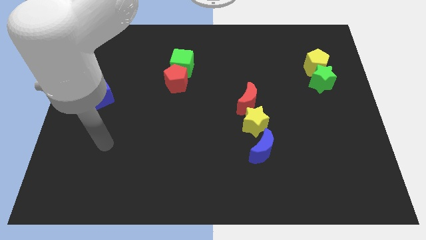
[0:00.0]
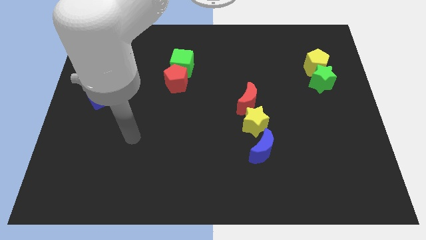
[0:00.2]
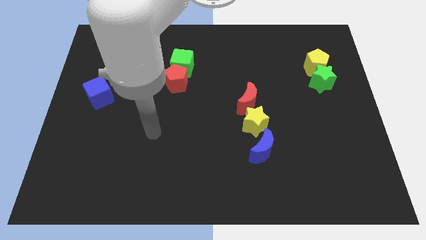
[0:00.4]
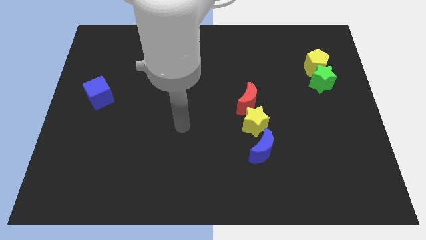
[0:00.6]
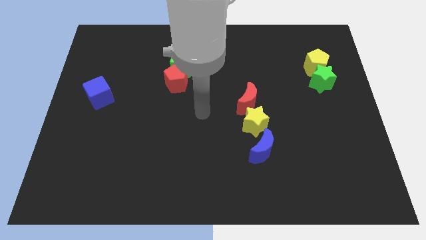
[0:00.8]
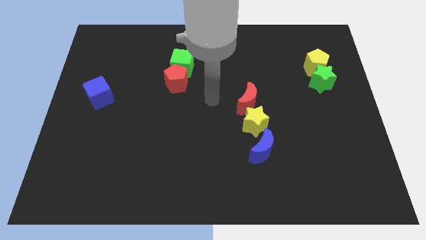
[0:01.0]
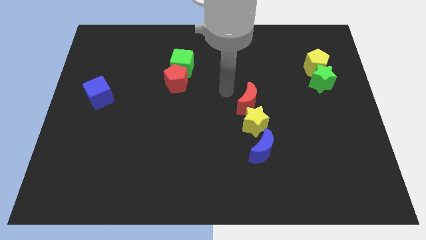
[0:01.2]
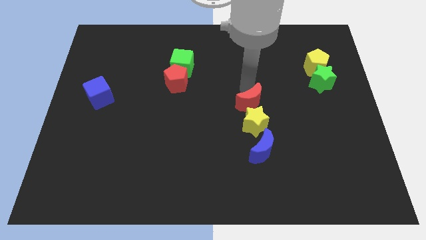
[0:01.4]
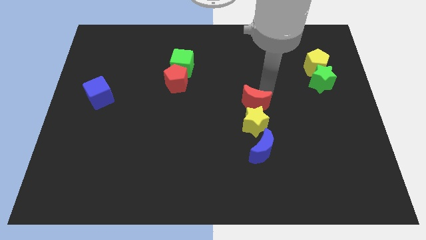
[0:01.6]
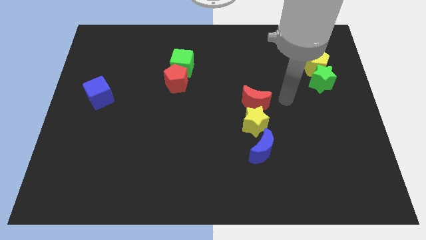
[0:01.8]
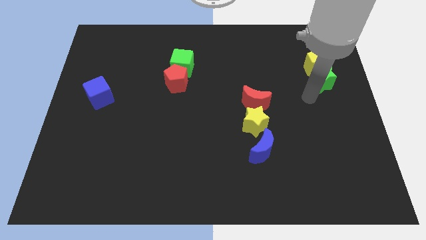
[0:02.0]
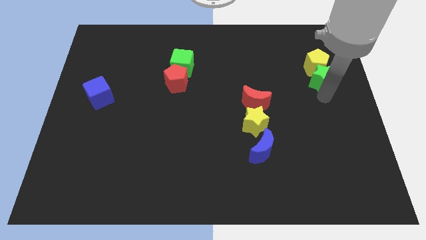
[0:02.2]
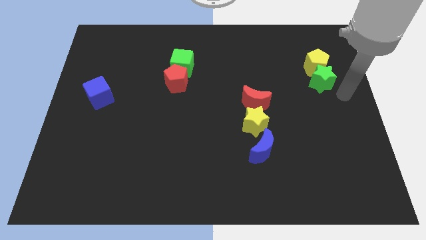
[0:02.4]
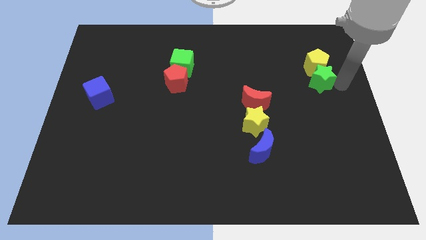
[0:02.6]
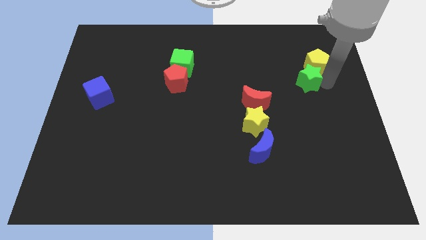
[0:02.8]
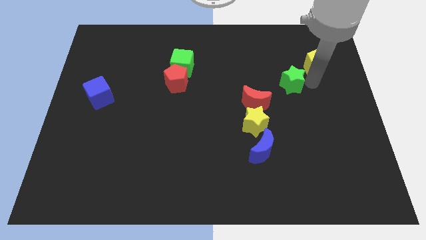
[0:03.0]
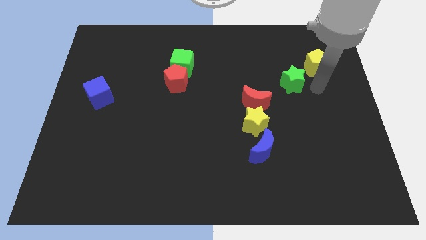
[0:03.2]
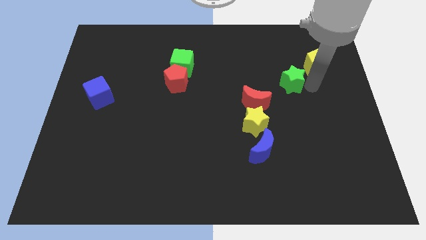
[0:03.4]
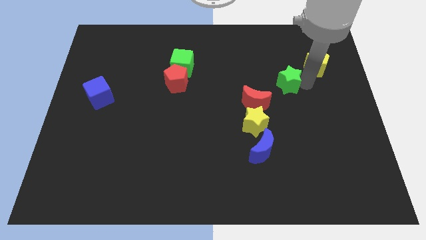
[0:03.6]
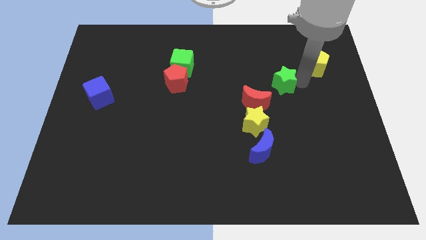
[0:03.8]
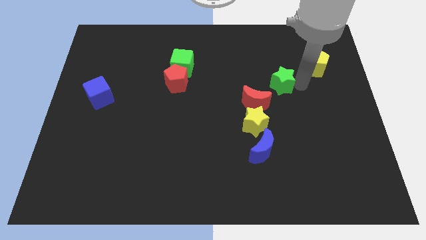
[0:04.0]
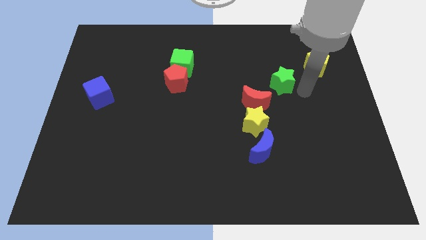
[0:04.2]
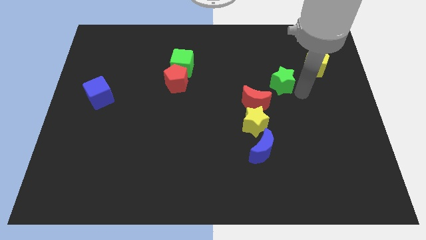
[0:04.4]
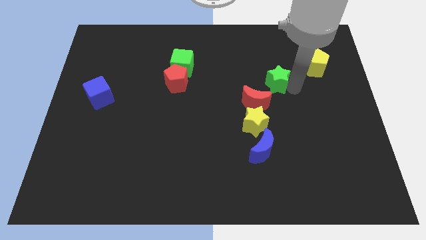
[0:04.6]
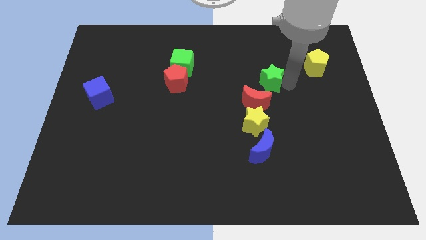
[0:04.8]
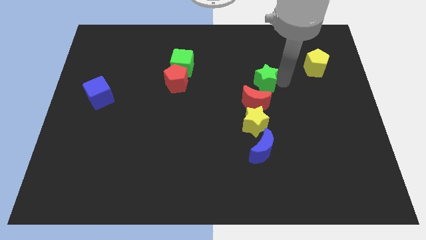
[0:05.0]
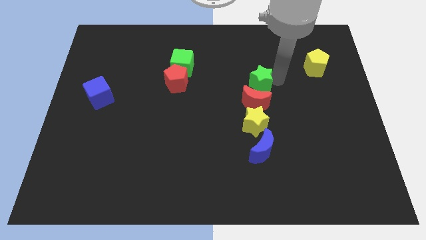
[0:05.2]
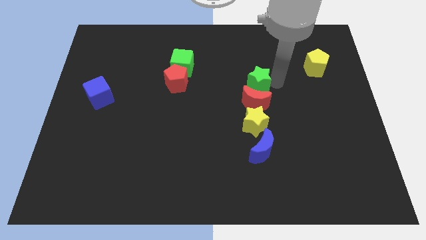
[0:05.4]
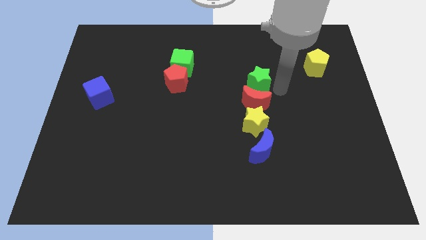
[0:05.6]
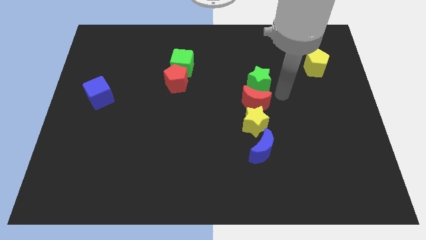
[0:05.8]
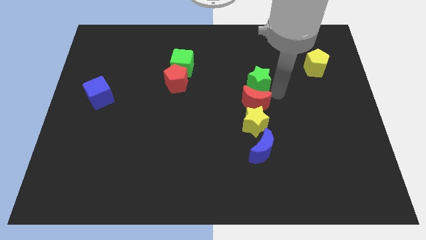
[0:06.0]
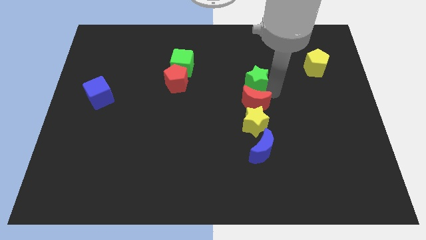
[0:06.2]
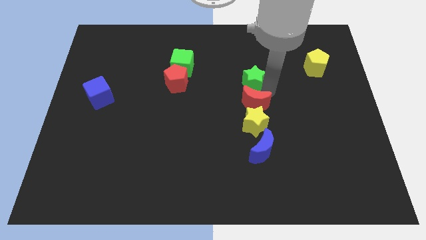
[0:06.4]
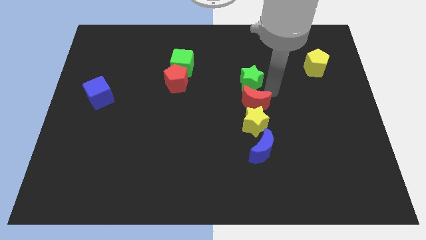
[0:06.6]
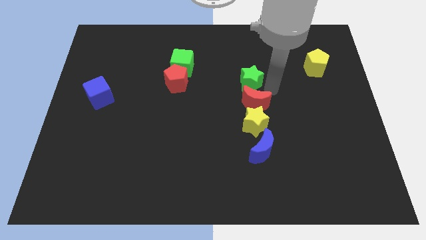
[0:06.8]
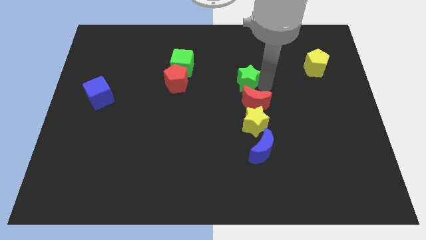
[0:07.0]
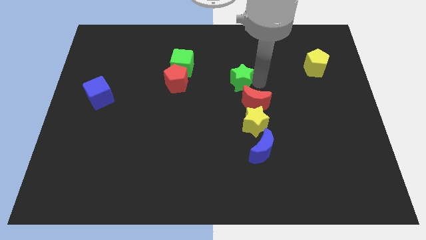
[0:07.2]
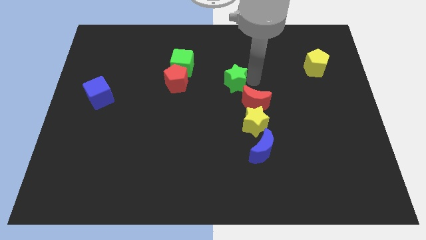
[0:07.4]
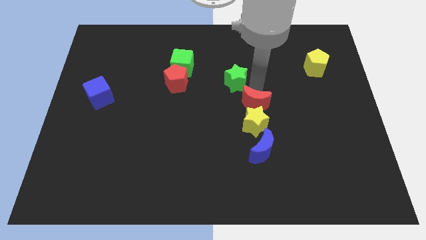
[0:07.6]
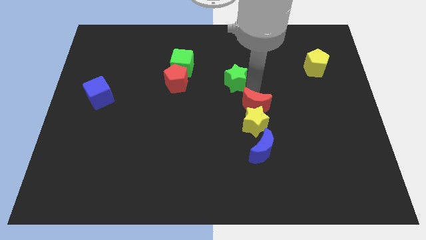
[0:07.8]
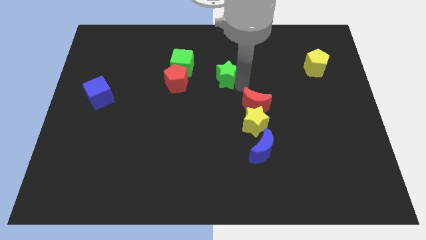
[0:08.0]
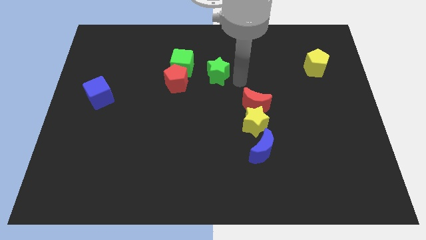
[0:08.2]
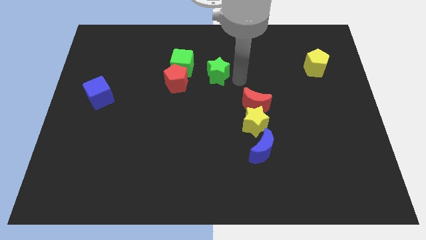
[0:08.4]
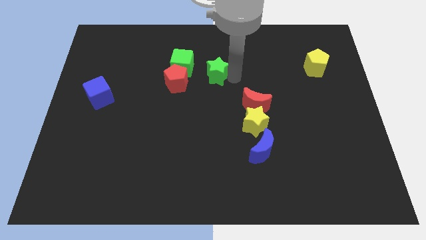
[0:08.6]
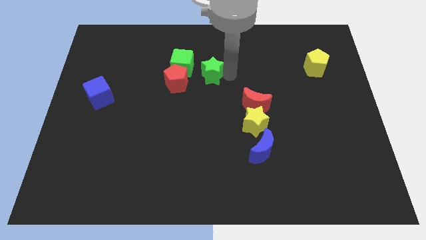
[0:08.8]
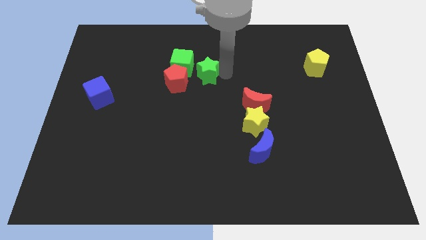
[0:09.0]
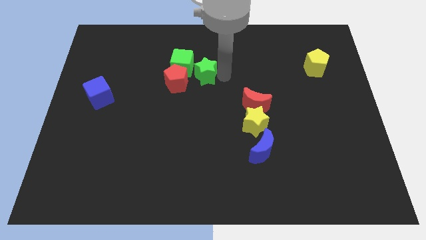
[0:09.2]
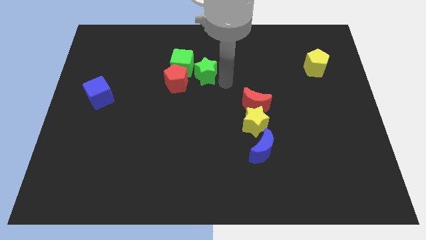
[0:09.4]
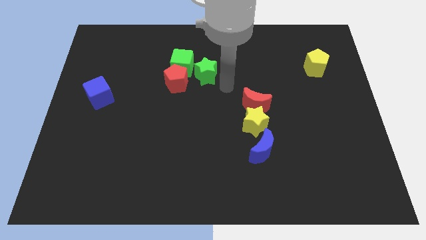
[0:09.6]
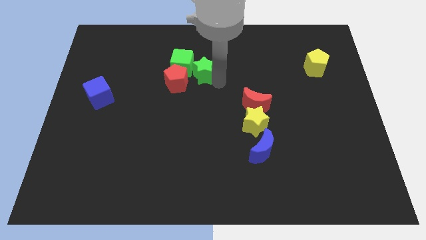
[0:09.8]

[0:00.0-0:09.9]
push the green star next to the green cube

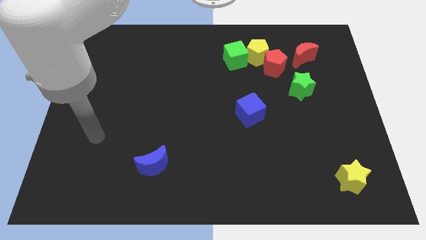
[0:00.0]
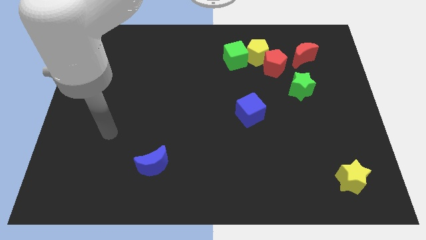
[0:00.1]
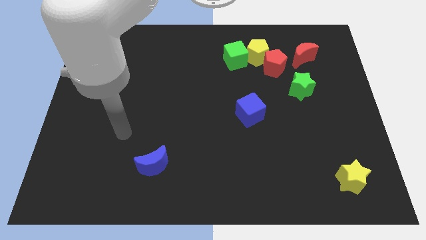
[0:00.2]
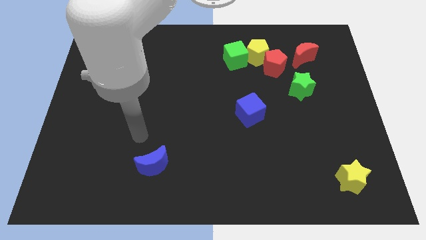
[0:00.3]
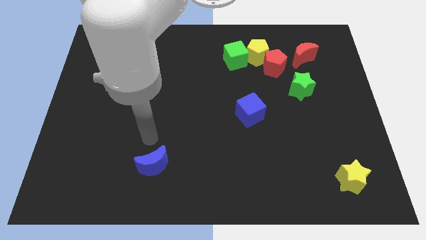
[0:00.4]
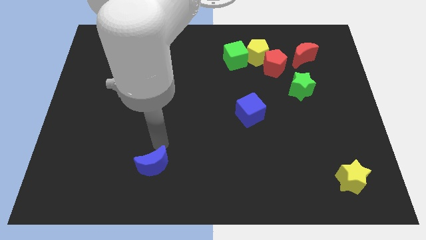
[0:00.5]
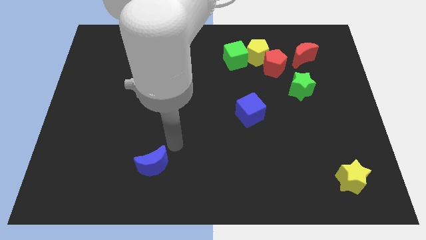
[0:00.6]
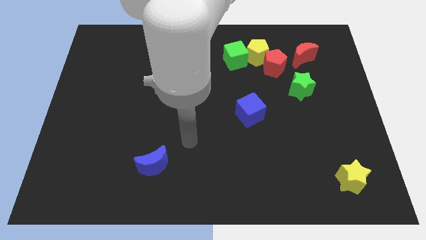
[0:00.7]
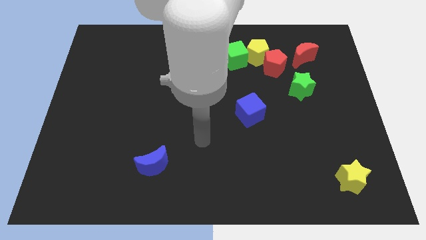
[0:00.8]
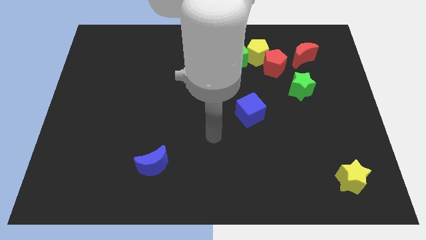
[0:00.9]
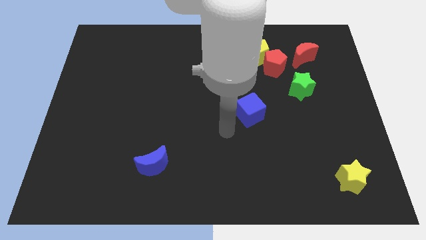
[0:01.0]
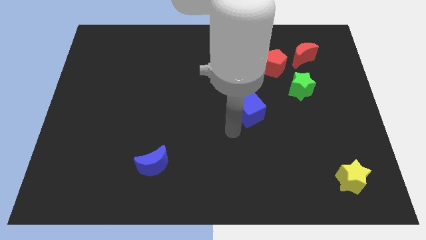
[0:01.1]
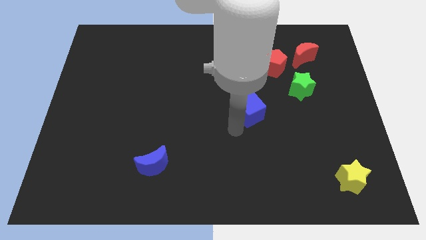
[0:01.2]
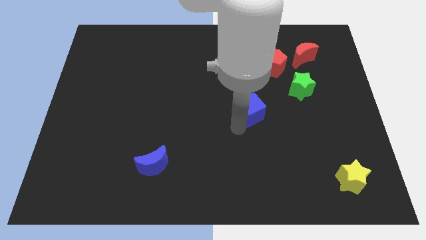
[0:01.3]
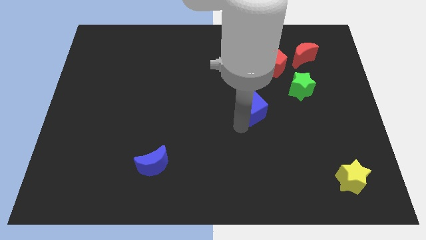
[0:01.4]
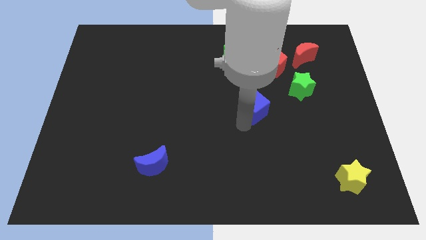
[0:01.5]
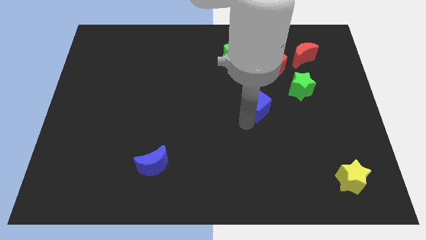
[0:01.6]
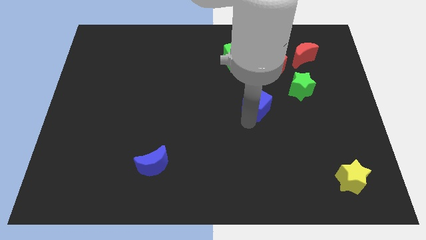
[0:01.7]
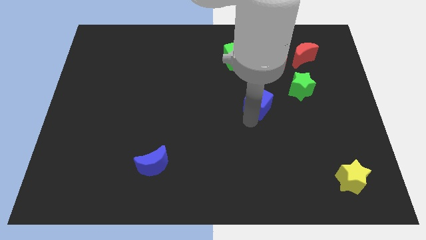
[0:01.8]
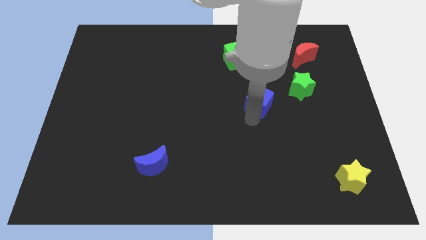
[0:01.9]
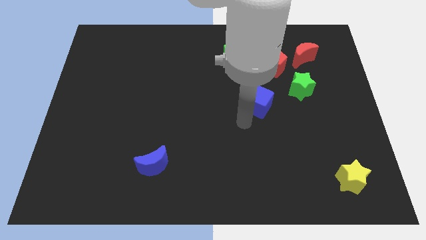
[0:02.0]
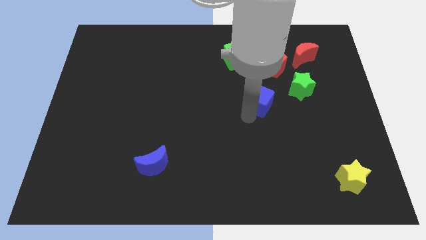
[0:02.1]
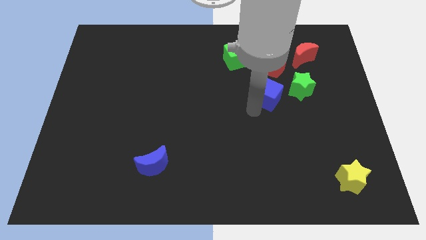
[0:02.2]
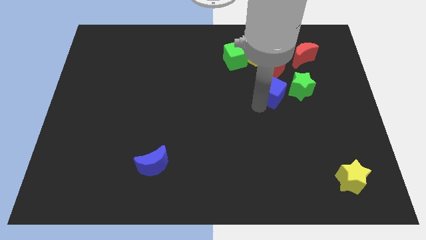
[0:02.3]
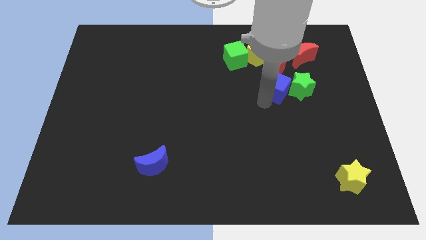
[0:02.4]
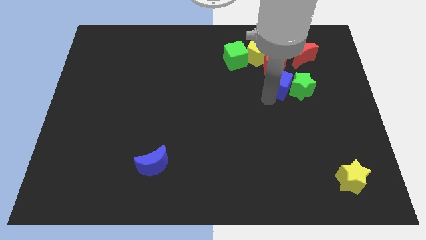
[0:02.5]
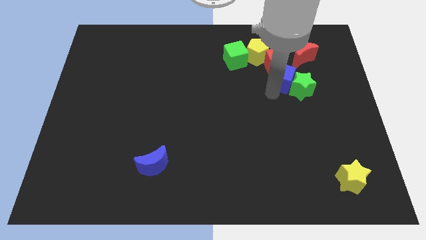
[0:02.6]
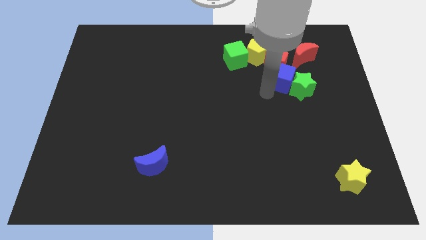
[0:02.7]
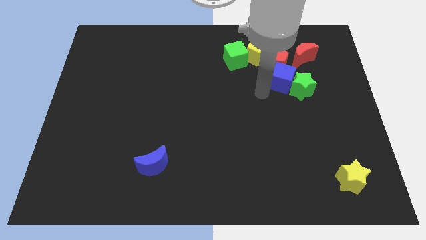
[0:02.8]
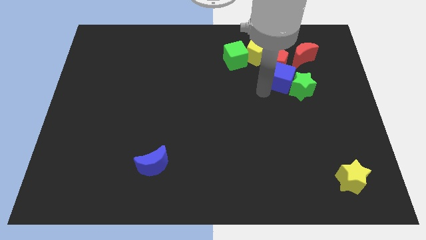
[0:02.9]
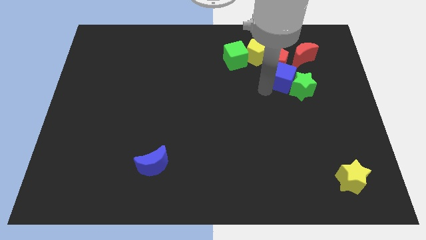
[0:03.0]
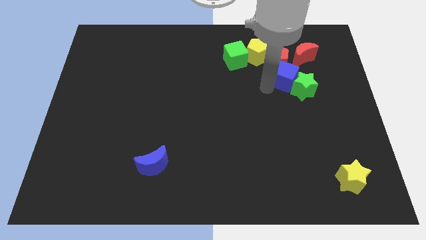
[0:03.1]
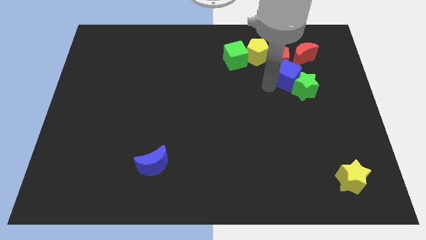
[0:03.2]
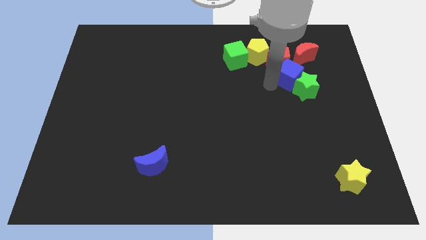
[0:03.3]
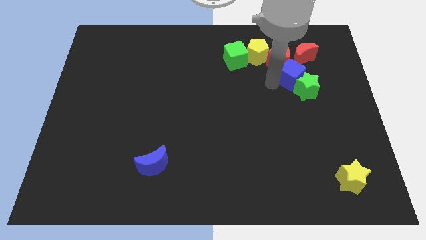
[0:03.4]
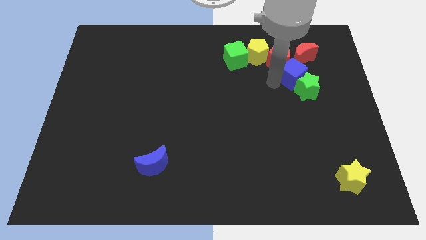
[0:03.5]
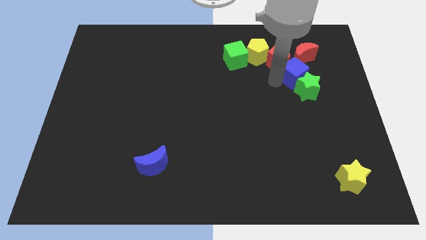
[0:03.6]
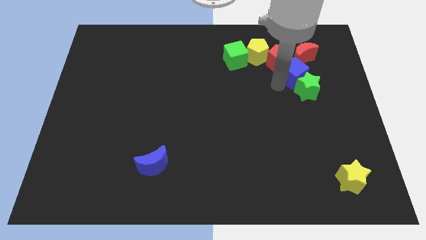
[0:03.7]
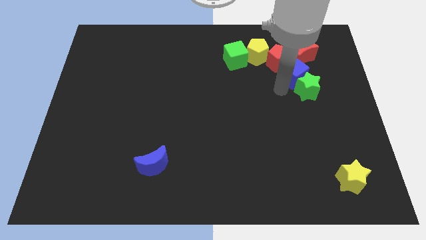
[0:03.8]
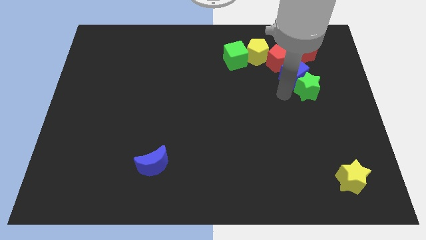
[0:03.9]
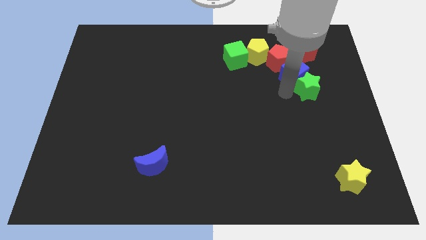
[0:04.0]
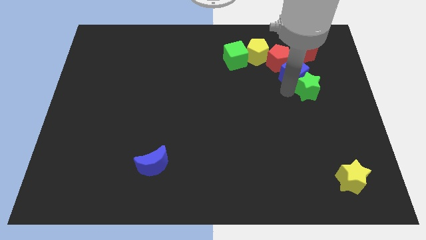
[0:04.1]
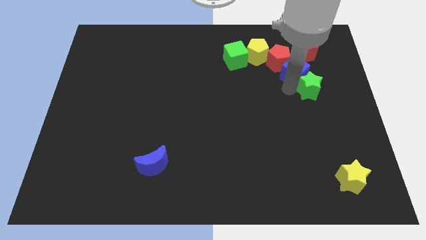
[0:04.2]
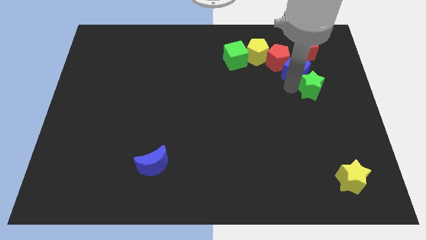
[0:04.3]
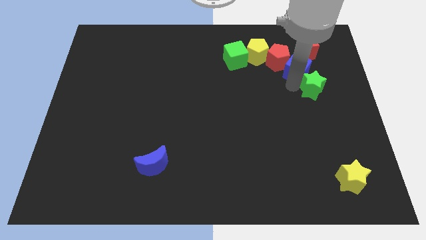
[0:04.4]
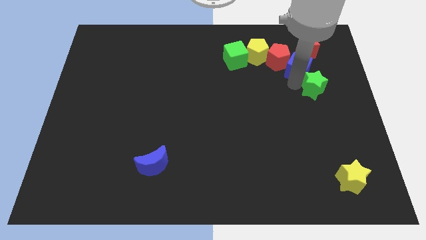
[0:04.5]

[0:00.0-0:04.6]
push the blue cube to the red moon
